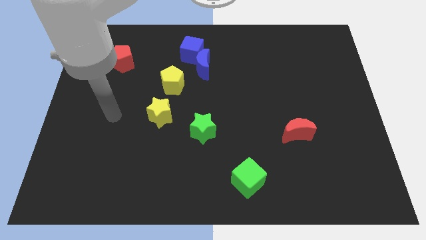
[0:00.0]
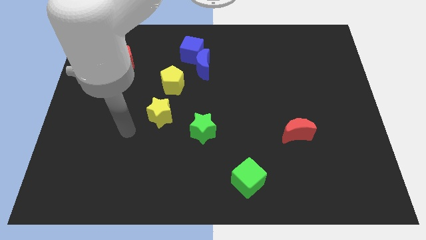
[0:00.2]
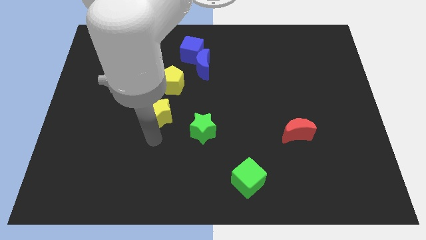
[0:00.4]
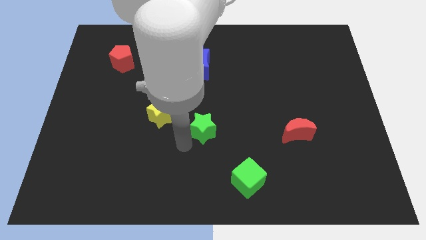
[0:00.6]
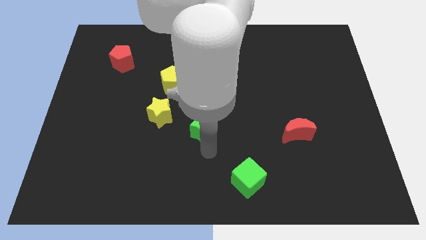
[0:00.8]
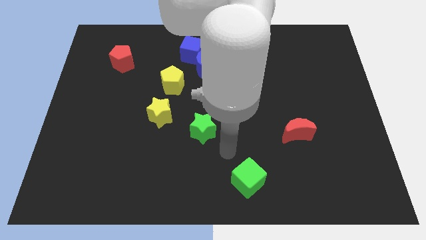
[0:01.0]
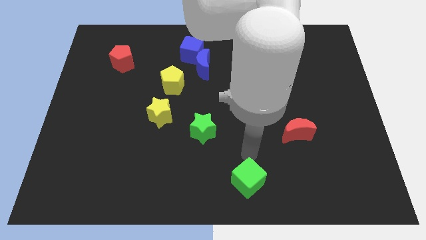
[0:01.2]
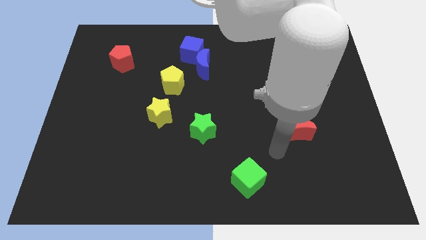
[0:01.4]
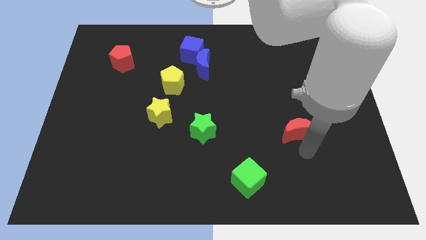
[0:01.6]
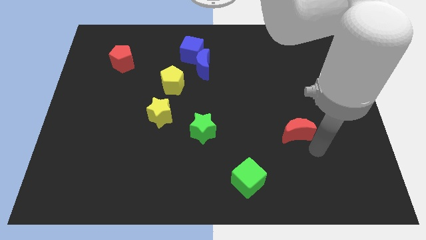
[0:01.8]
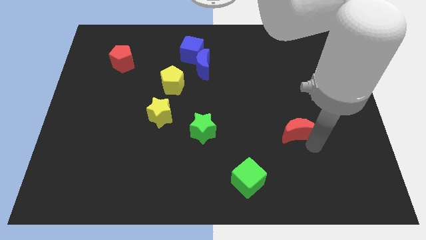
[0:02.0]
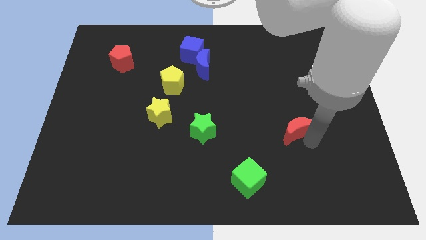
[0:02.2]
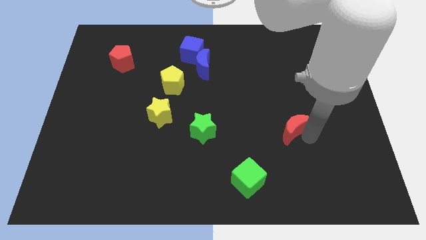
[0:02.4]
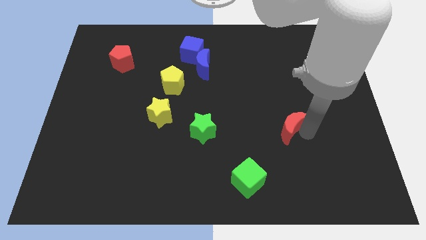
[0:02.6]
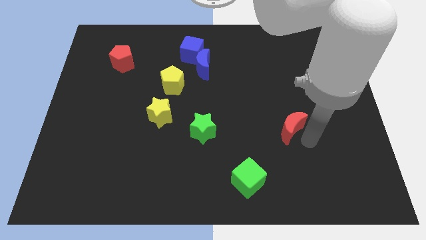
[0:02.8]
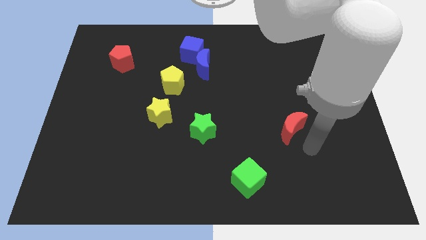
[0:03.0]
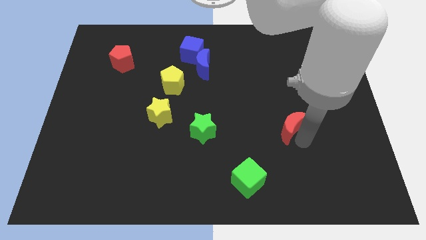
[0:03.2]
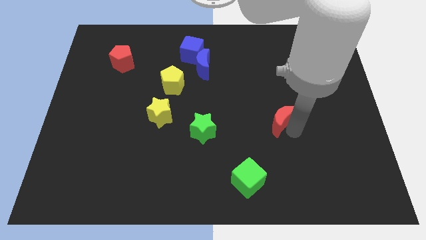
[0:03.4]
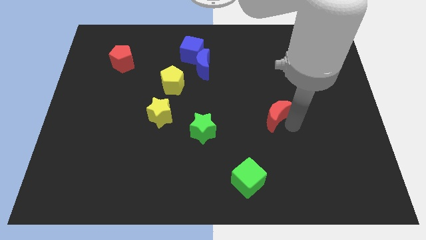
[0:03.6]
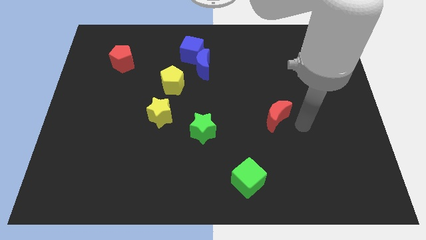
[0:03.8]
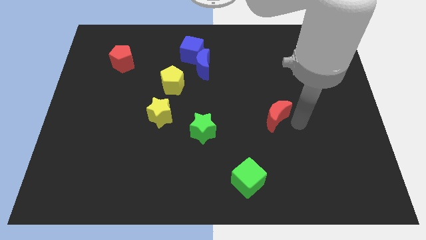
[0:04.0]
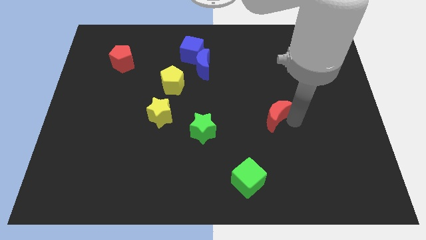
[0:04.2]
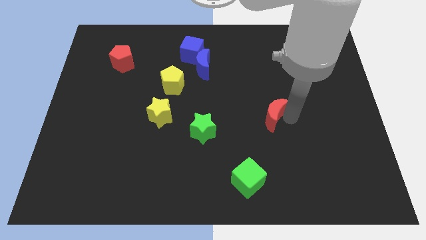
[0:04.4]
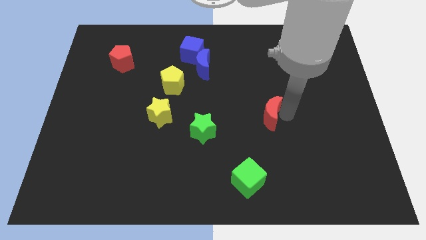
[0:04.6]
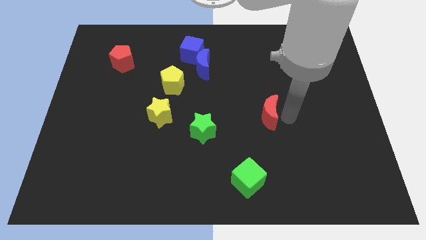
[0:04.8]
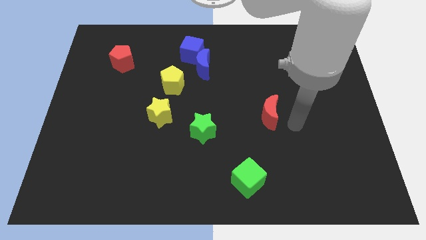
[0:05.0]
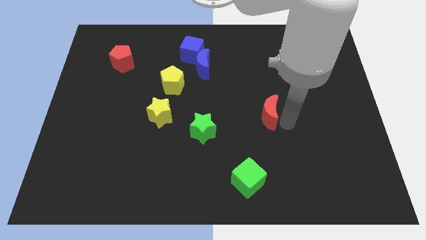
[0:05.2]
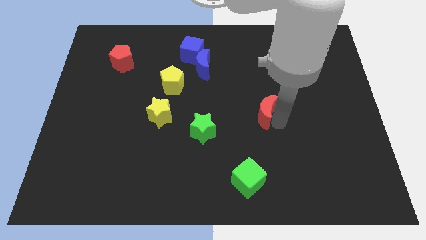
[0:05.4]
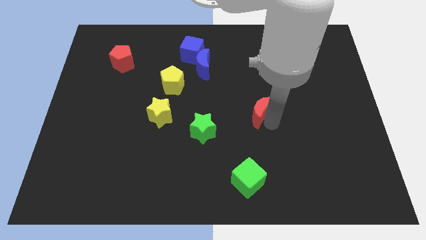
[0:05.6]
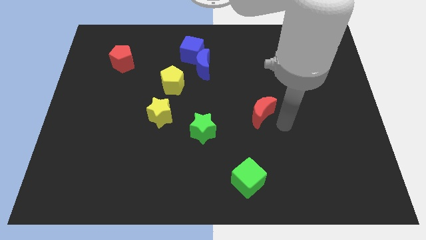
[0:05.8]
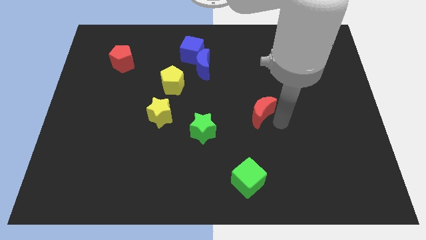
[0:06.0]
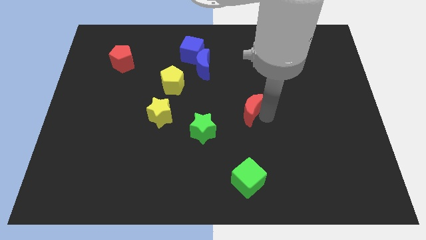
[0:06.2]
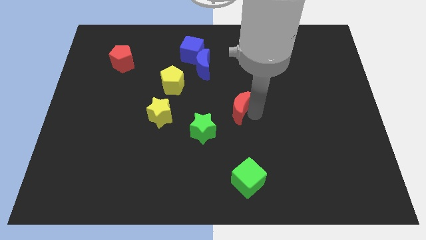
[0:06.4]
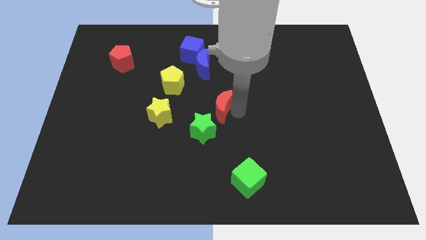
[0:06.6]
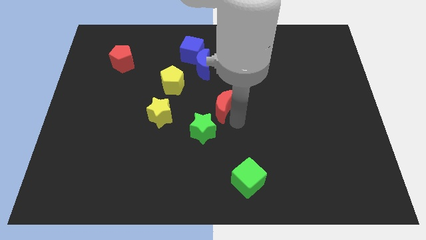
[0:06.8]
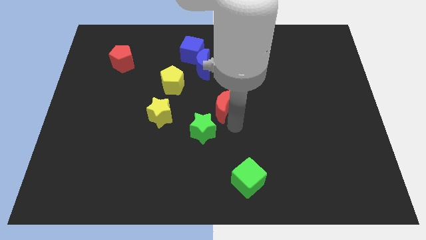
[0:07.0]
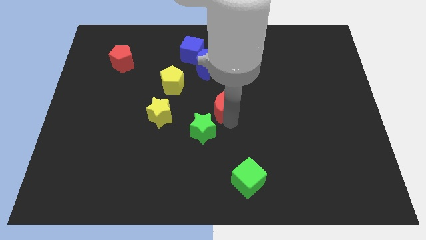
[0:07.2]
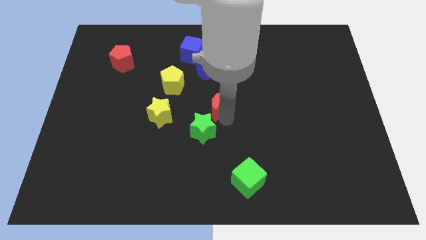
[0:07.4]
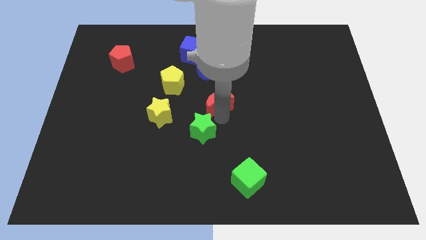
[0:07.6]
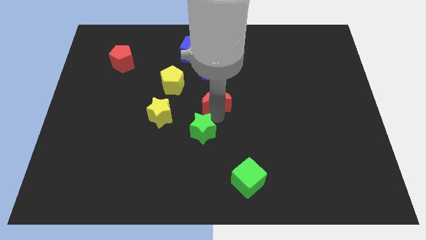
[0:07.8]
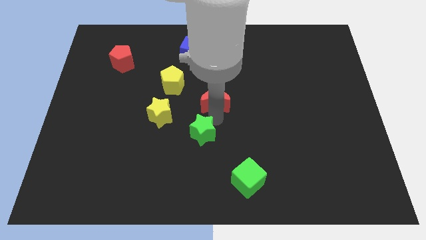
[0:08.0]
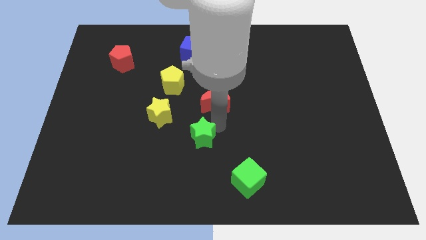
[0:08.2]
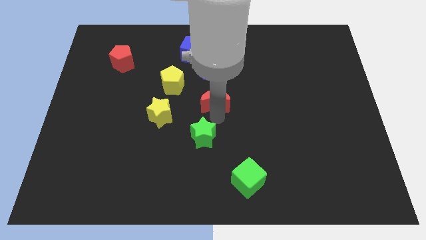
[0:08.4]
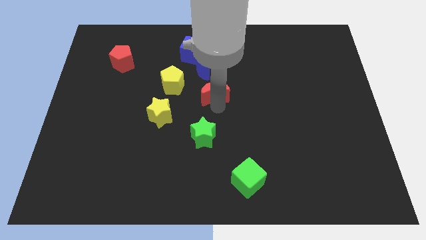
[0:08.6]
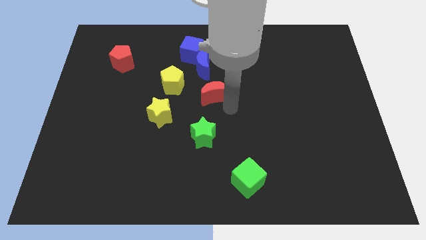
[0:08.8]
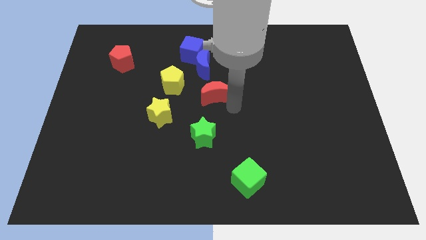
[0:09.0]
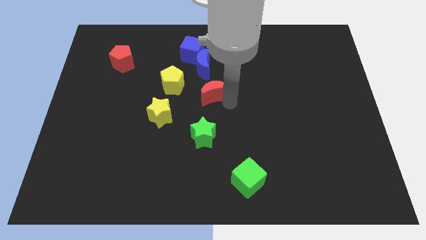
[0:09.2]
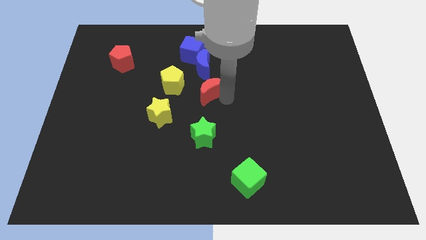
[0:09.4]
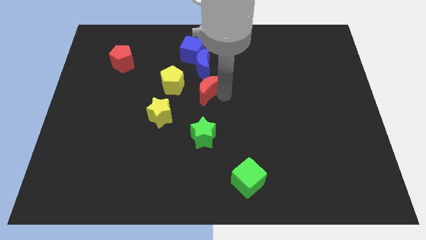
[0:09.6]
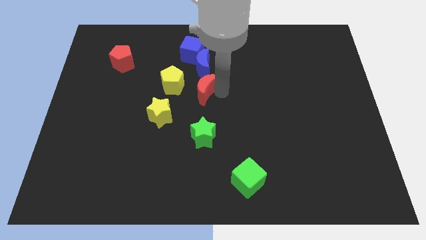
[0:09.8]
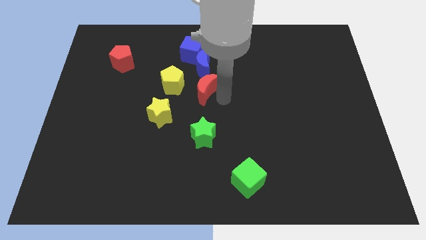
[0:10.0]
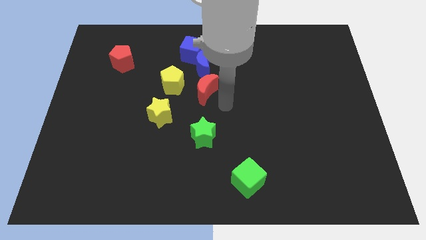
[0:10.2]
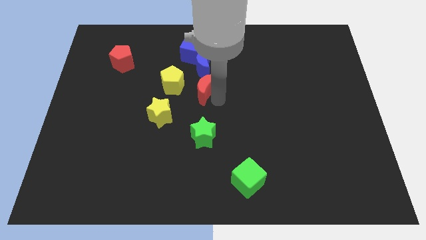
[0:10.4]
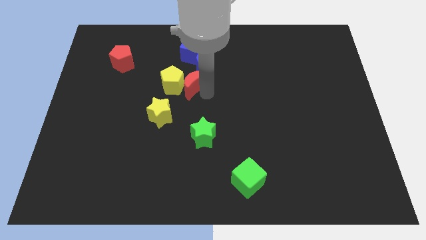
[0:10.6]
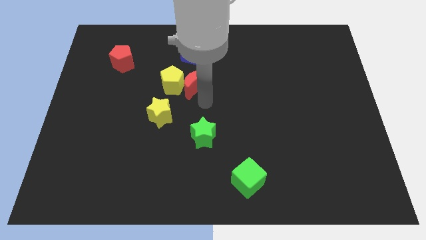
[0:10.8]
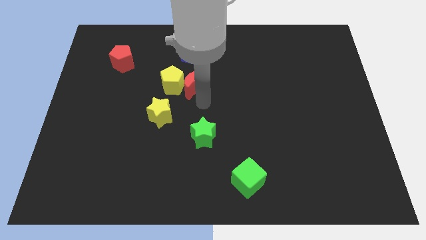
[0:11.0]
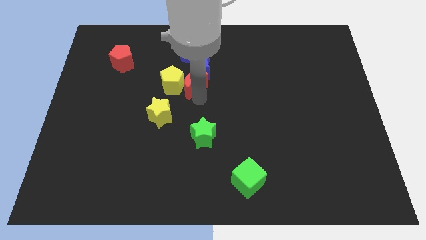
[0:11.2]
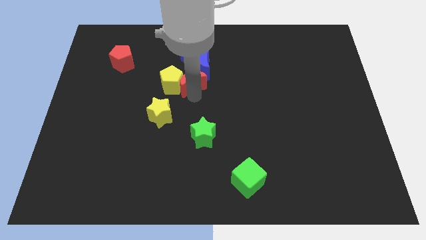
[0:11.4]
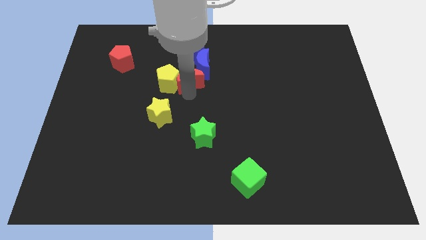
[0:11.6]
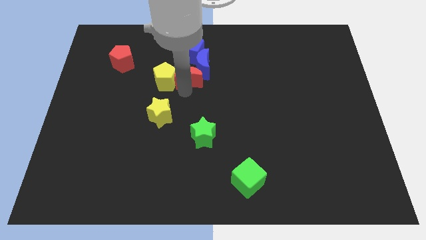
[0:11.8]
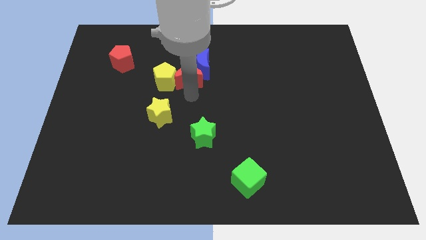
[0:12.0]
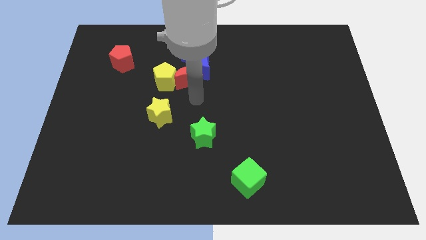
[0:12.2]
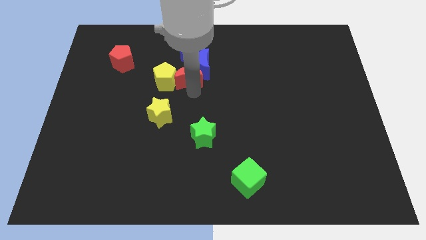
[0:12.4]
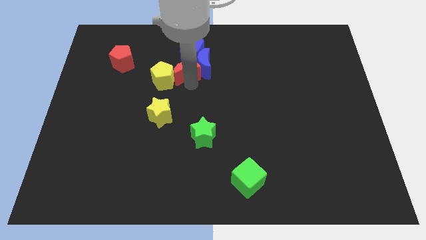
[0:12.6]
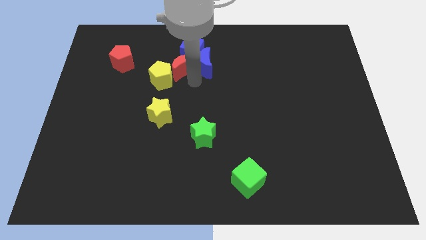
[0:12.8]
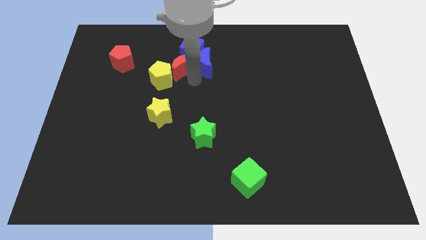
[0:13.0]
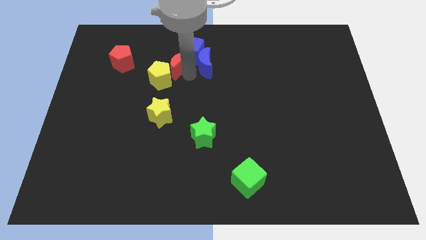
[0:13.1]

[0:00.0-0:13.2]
put the red moon to the top side of the yellow pentagon

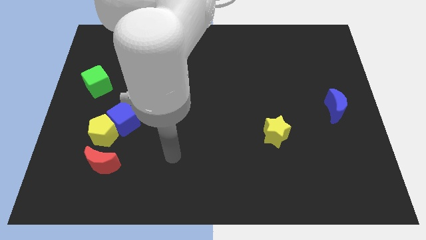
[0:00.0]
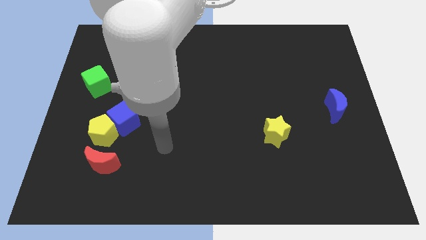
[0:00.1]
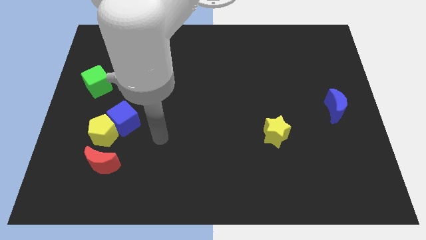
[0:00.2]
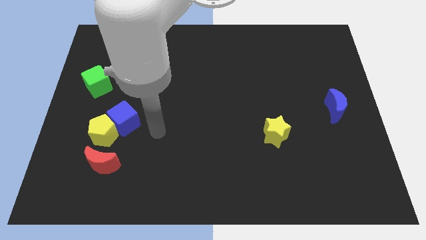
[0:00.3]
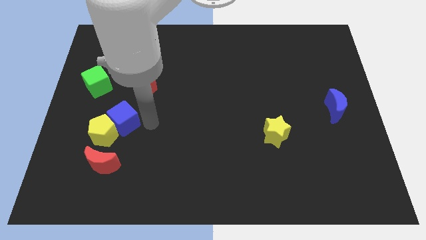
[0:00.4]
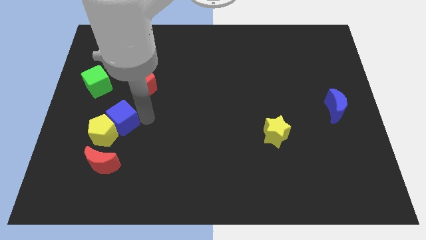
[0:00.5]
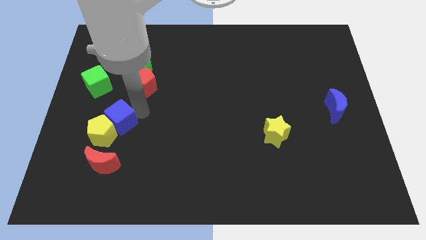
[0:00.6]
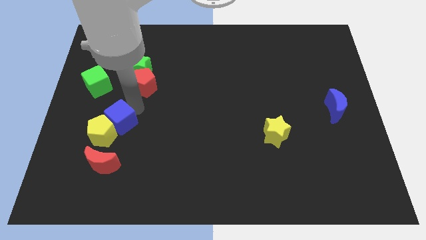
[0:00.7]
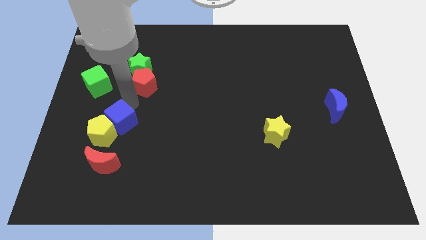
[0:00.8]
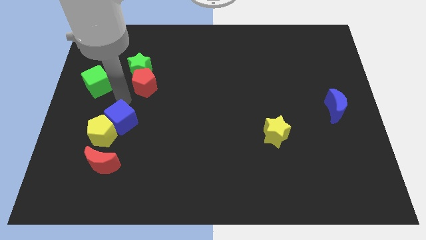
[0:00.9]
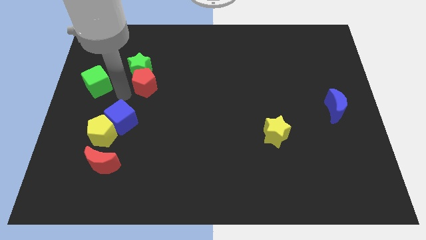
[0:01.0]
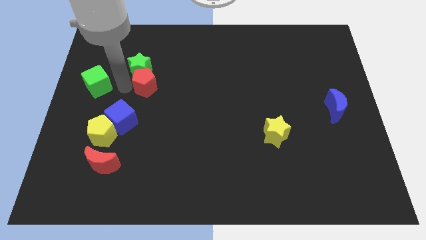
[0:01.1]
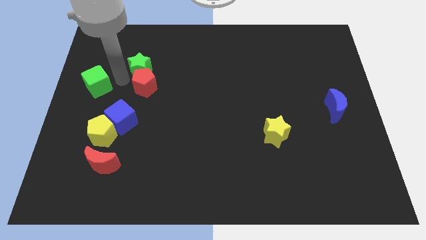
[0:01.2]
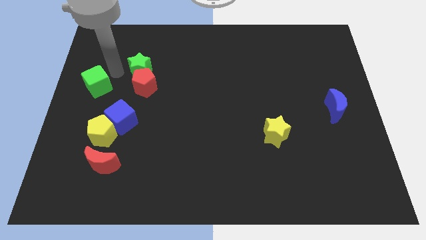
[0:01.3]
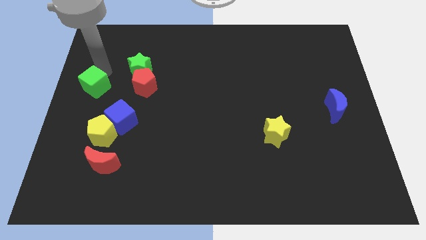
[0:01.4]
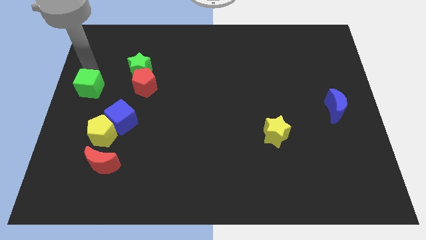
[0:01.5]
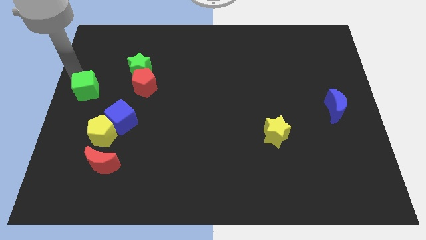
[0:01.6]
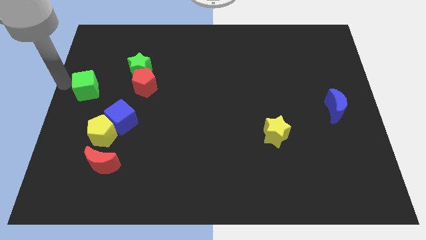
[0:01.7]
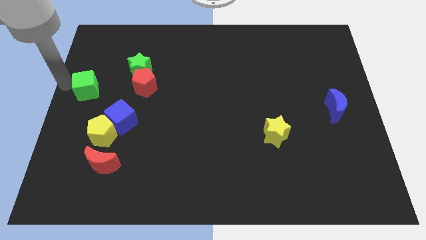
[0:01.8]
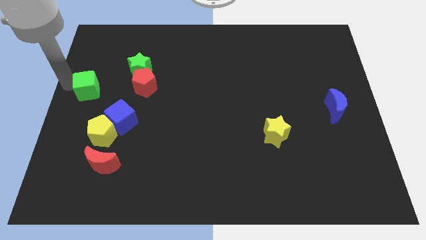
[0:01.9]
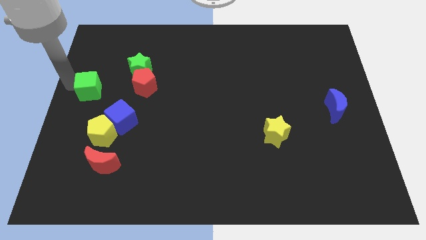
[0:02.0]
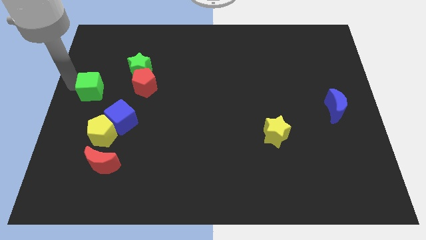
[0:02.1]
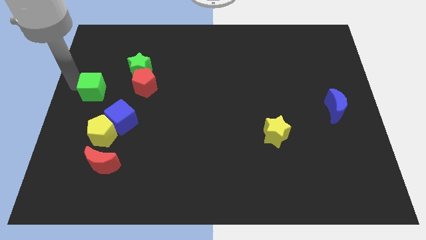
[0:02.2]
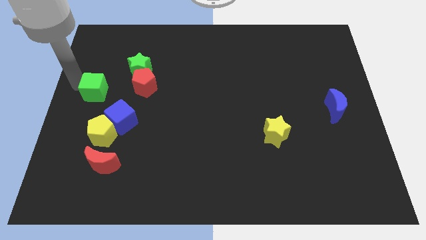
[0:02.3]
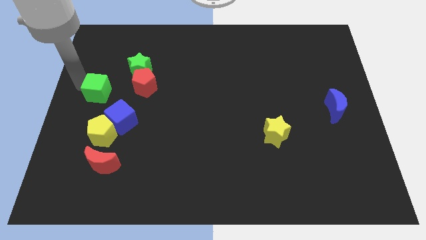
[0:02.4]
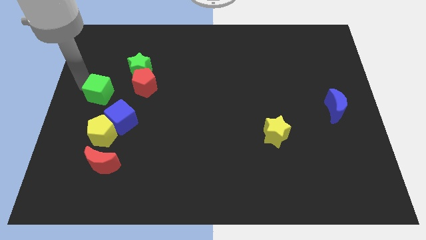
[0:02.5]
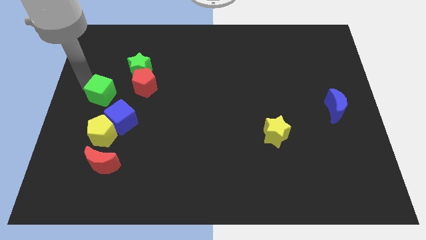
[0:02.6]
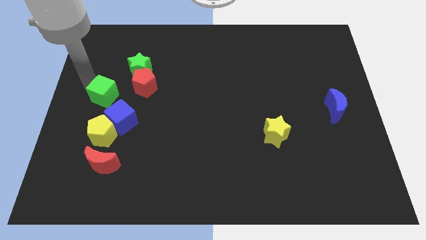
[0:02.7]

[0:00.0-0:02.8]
push the green cube diagonally down and to the left of the red pentagon
